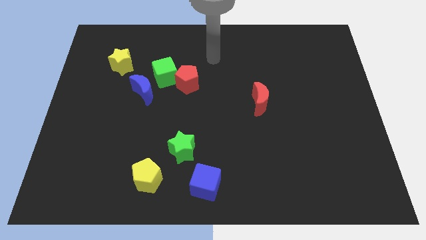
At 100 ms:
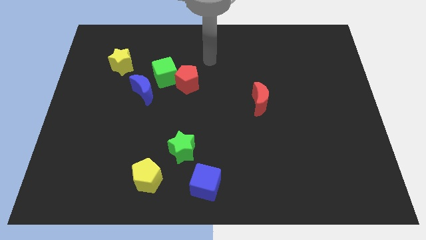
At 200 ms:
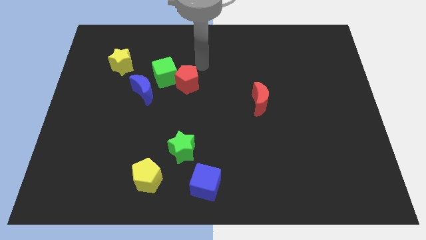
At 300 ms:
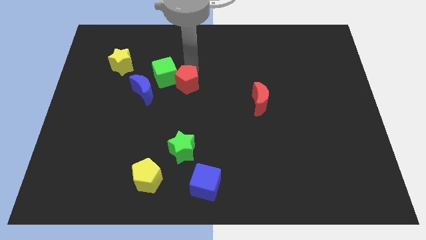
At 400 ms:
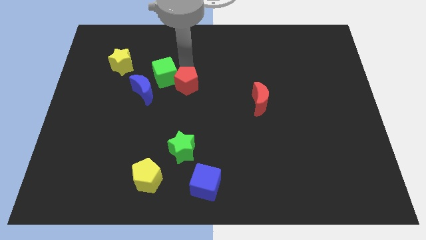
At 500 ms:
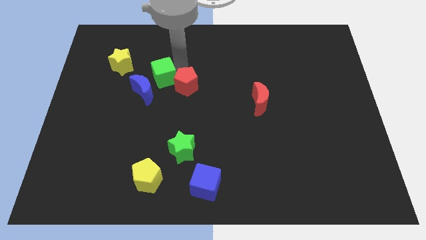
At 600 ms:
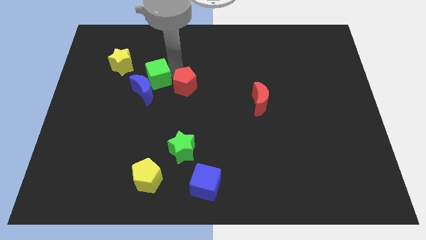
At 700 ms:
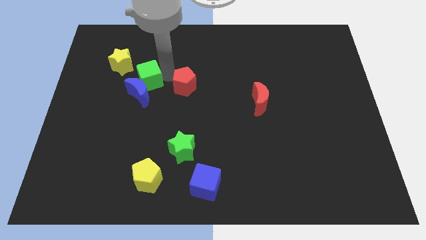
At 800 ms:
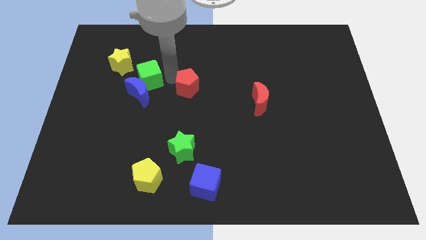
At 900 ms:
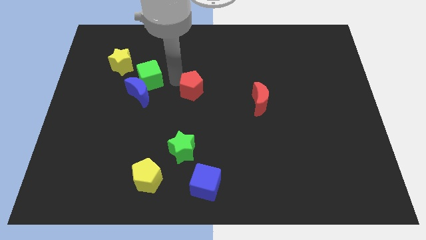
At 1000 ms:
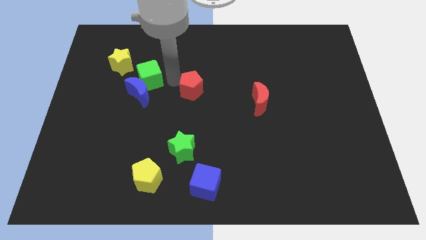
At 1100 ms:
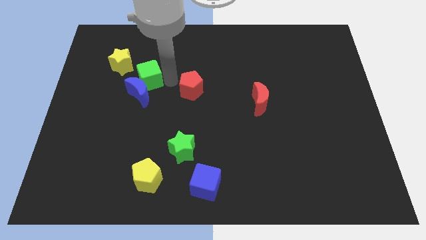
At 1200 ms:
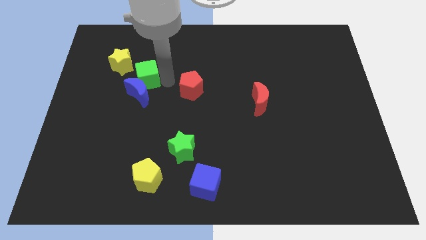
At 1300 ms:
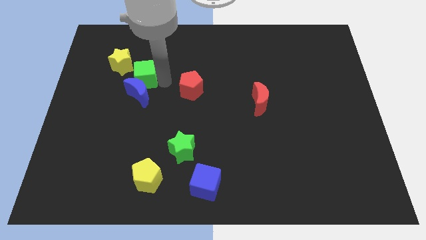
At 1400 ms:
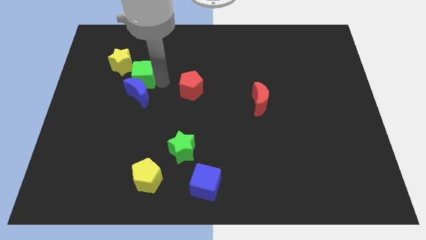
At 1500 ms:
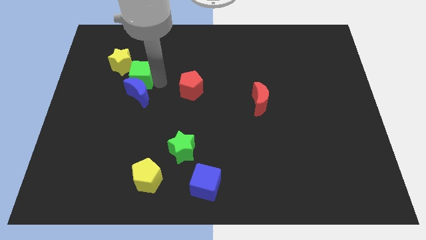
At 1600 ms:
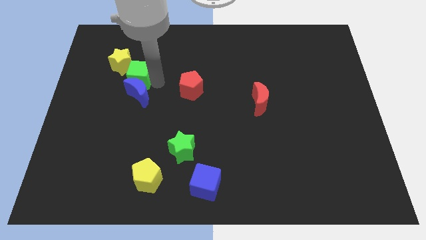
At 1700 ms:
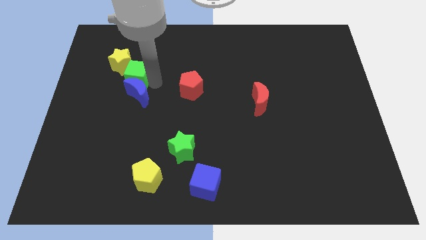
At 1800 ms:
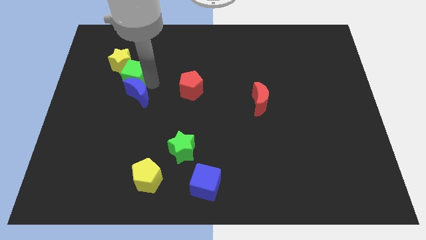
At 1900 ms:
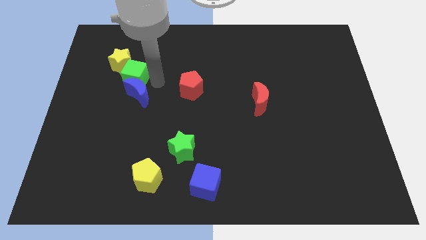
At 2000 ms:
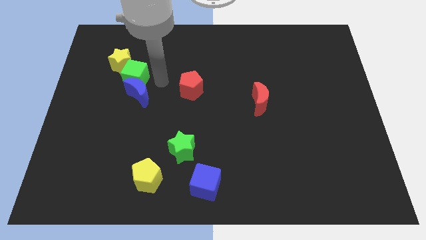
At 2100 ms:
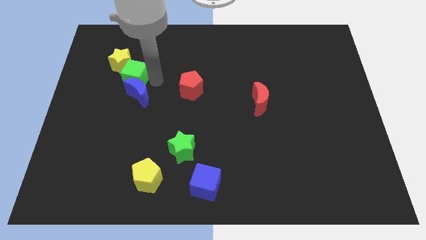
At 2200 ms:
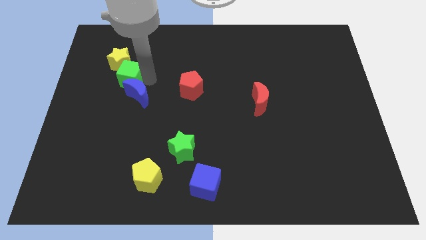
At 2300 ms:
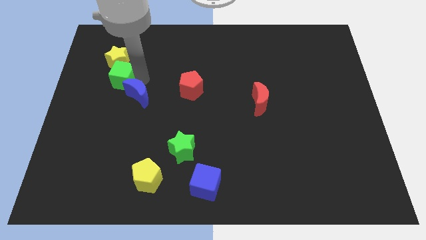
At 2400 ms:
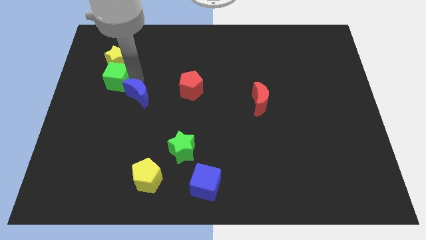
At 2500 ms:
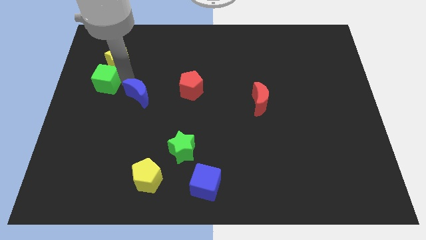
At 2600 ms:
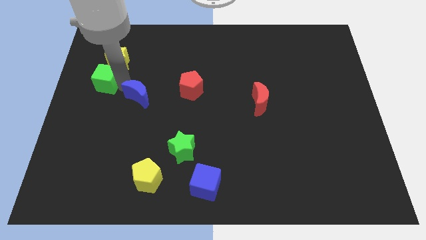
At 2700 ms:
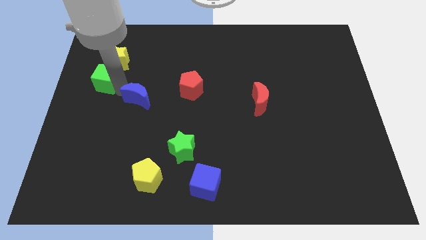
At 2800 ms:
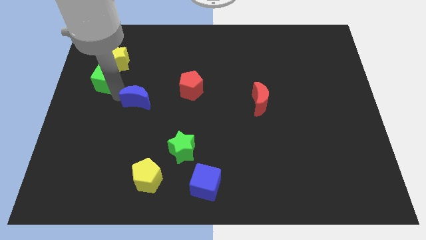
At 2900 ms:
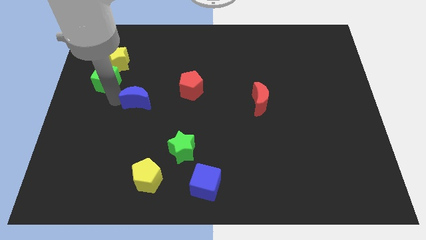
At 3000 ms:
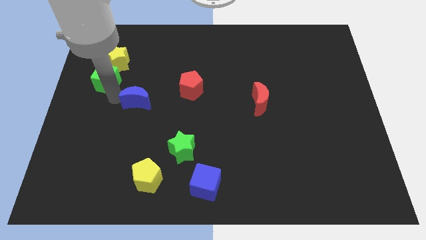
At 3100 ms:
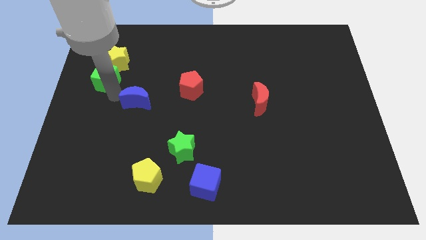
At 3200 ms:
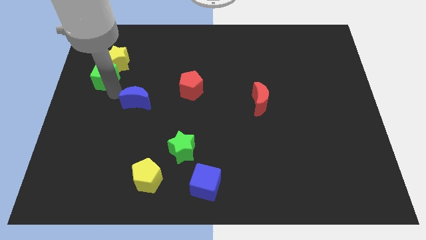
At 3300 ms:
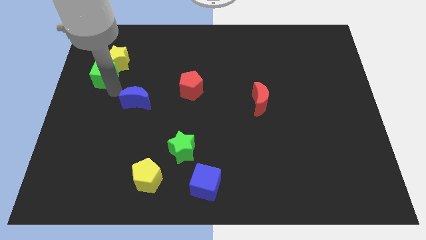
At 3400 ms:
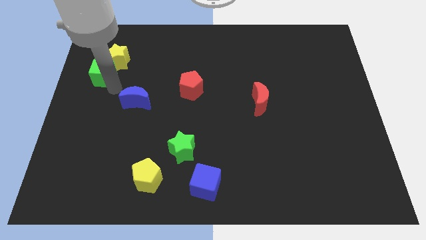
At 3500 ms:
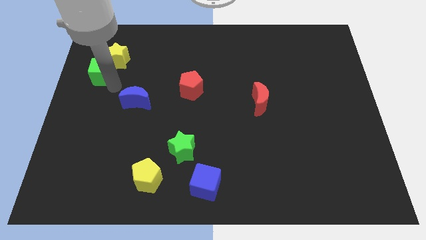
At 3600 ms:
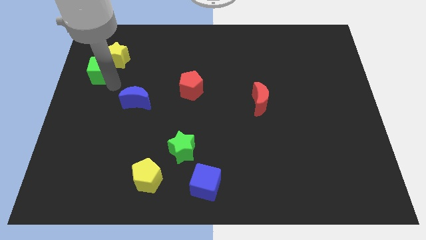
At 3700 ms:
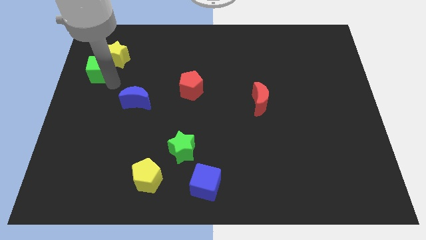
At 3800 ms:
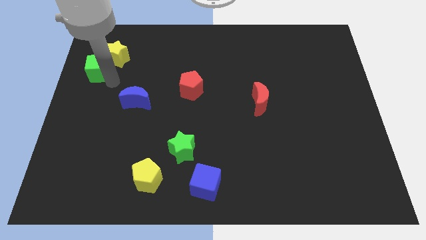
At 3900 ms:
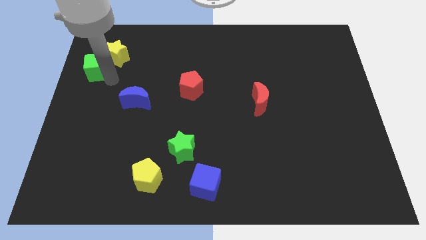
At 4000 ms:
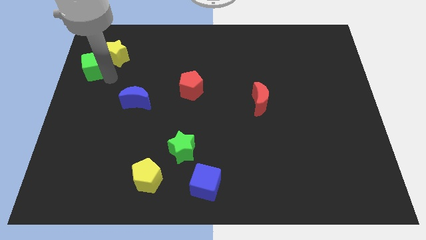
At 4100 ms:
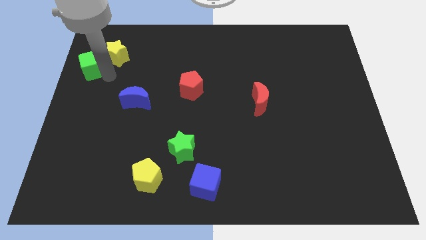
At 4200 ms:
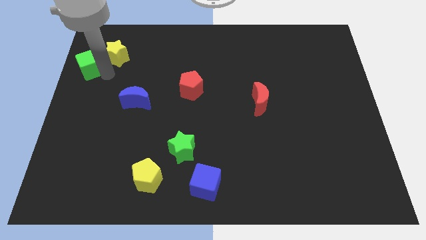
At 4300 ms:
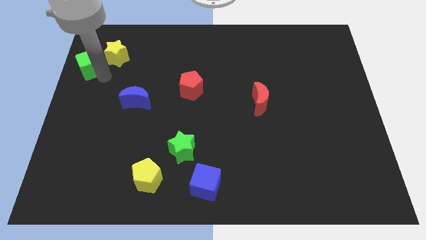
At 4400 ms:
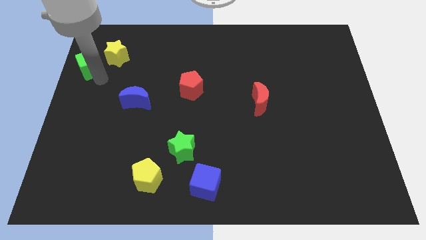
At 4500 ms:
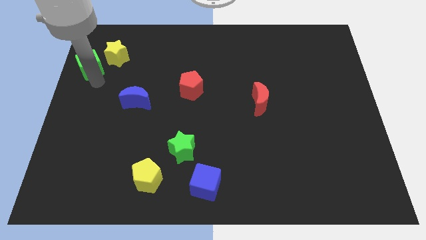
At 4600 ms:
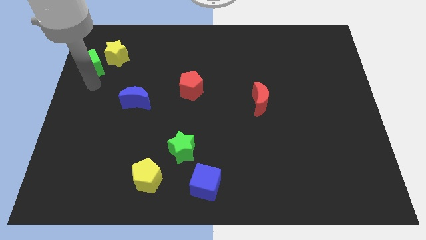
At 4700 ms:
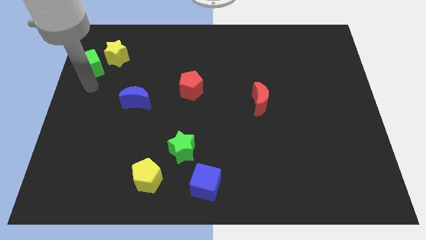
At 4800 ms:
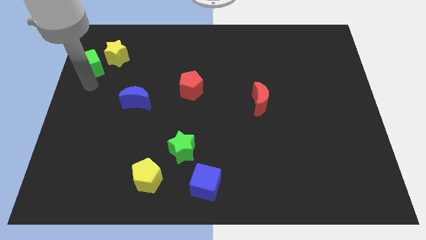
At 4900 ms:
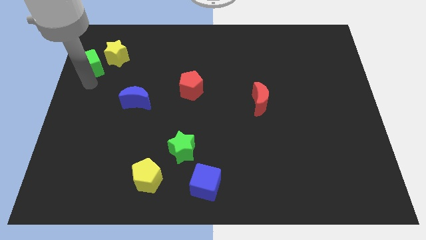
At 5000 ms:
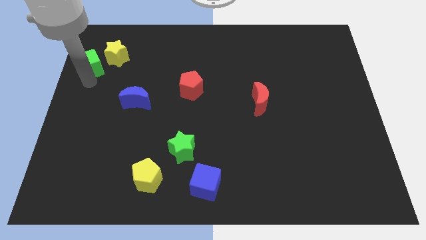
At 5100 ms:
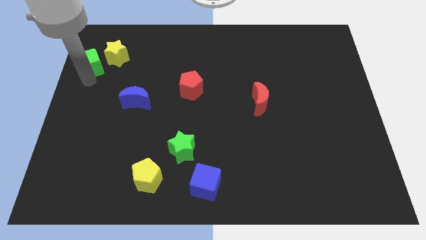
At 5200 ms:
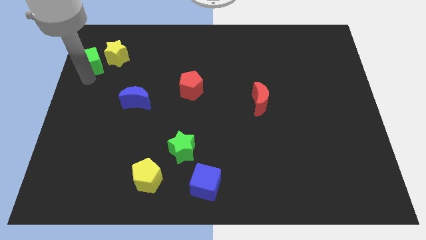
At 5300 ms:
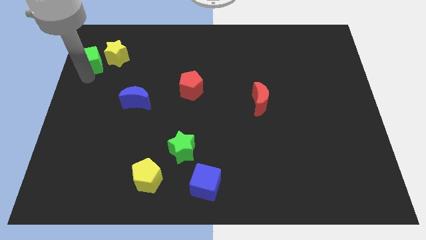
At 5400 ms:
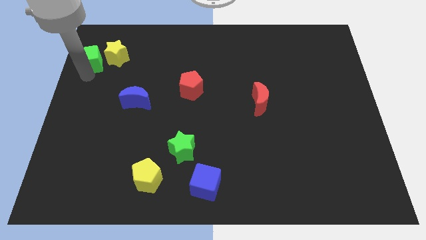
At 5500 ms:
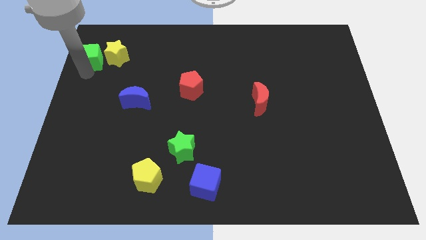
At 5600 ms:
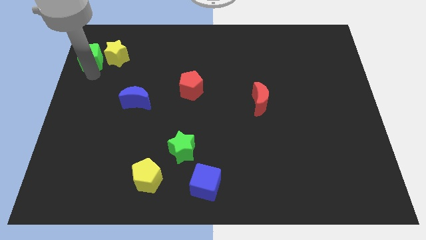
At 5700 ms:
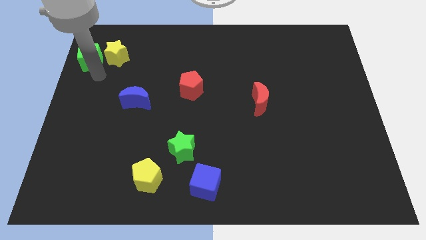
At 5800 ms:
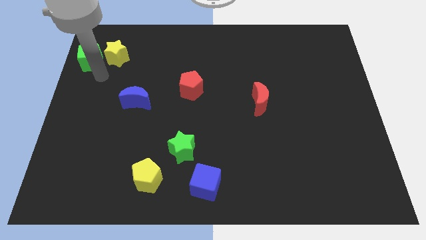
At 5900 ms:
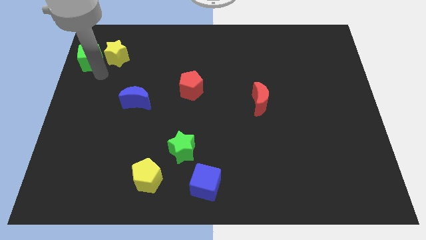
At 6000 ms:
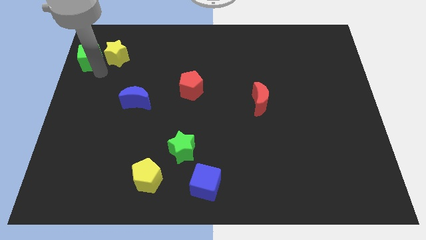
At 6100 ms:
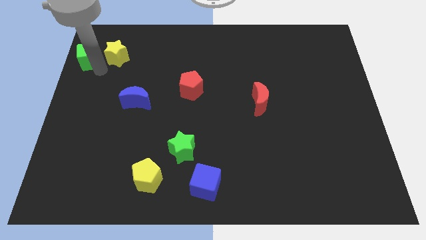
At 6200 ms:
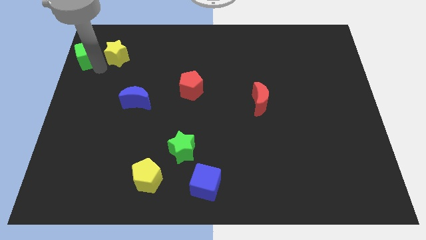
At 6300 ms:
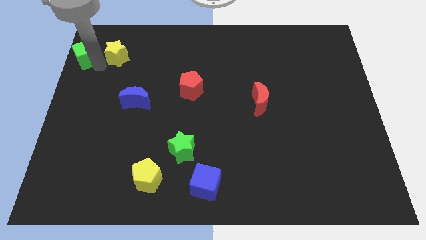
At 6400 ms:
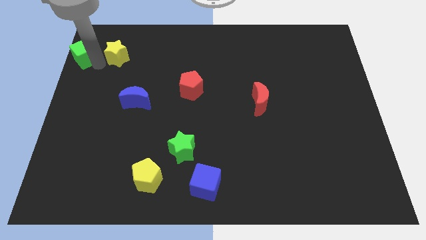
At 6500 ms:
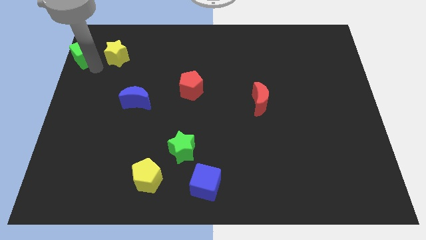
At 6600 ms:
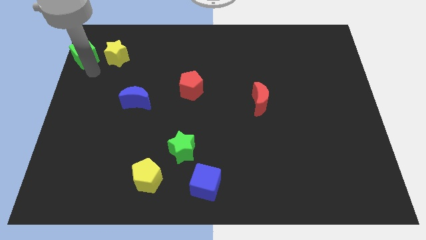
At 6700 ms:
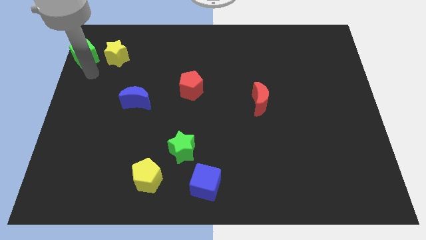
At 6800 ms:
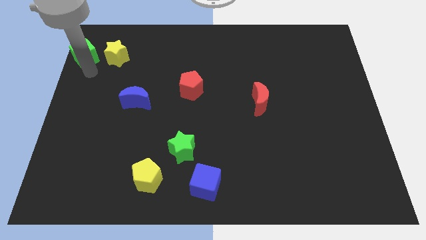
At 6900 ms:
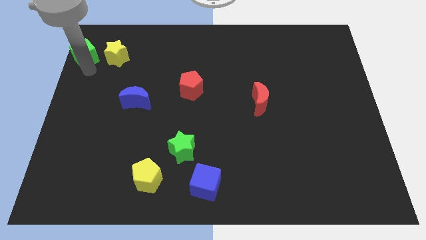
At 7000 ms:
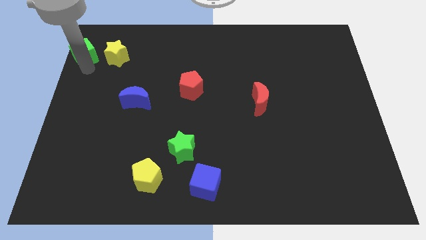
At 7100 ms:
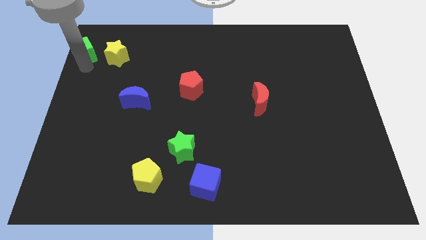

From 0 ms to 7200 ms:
put the green cube to the top left
